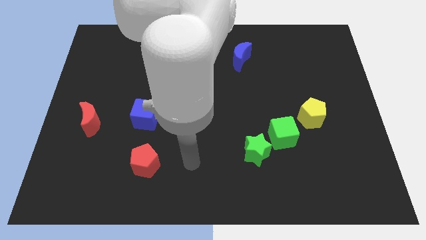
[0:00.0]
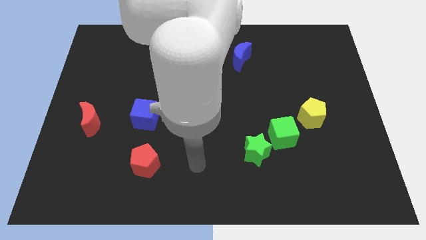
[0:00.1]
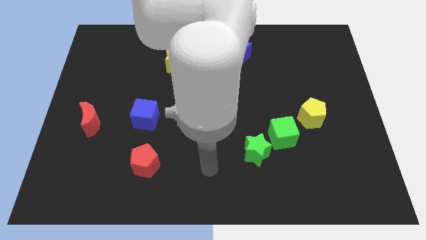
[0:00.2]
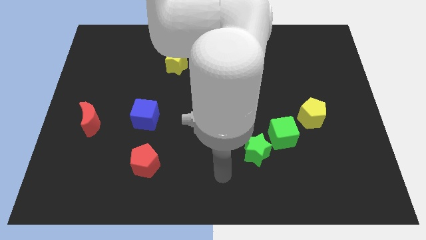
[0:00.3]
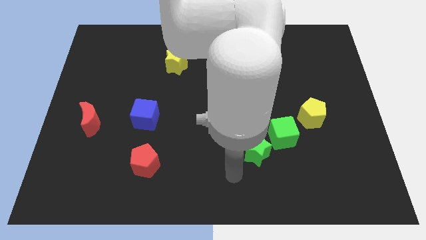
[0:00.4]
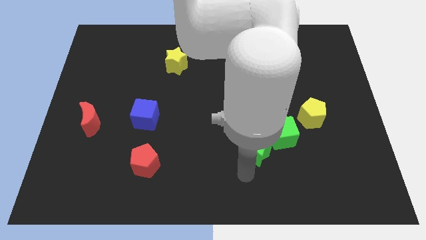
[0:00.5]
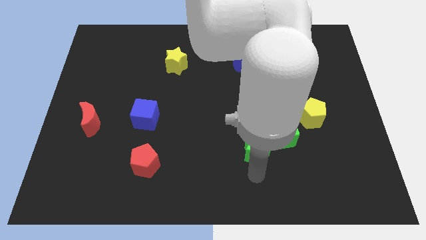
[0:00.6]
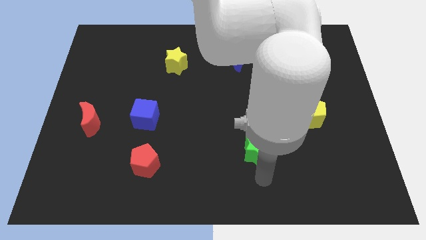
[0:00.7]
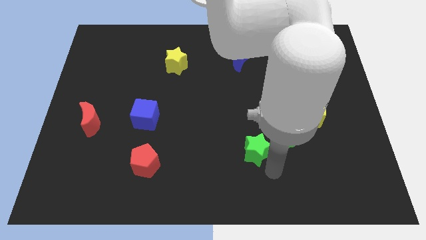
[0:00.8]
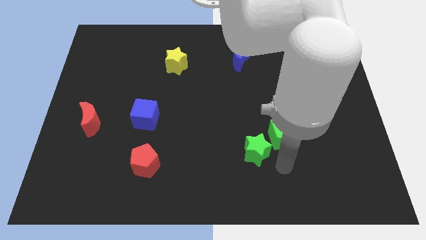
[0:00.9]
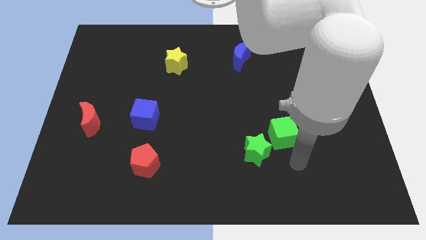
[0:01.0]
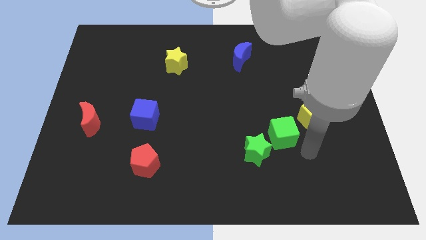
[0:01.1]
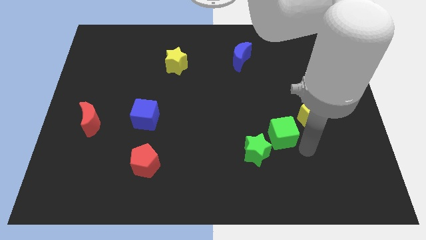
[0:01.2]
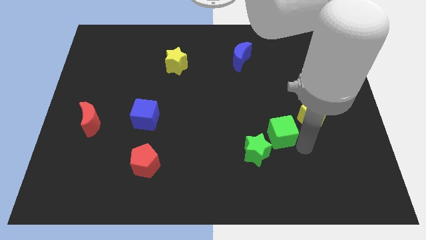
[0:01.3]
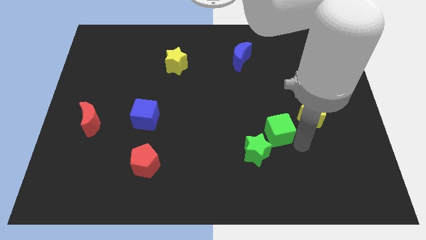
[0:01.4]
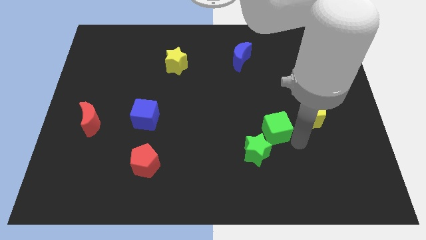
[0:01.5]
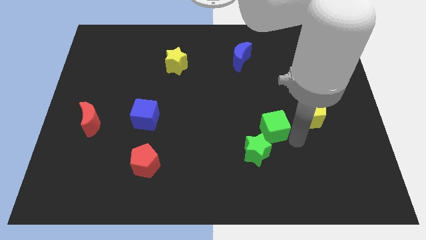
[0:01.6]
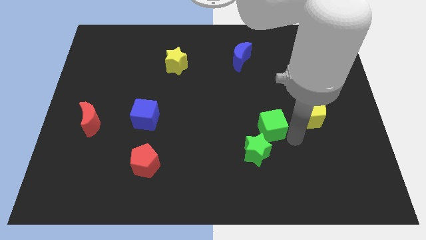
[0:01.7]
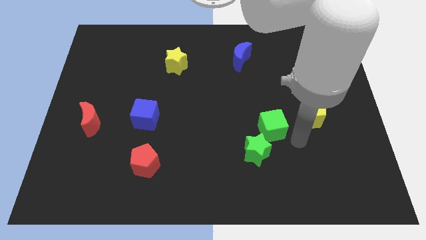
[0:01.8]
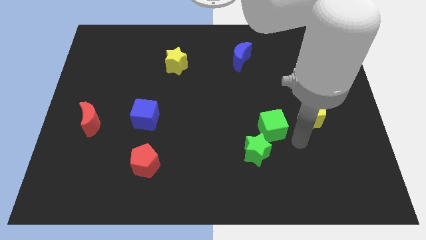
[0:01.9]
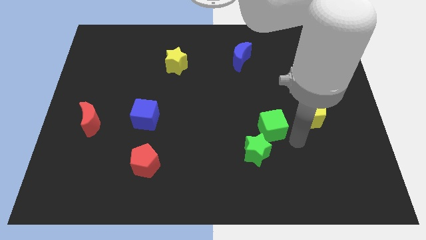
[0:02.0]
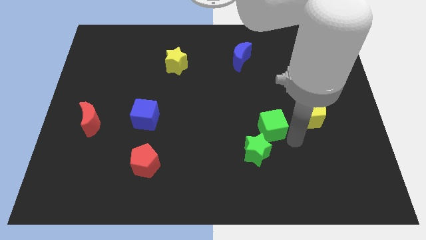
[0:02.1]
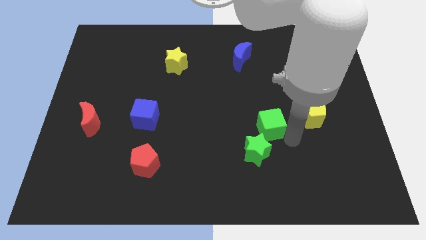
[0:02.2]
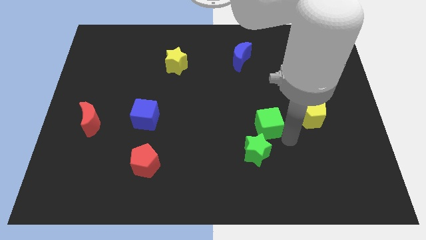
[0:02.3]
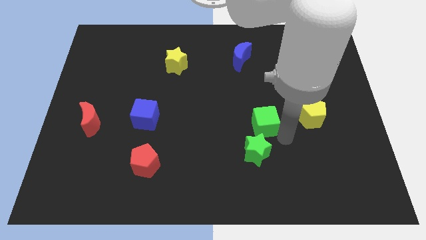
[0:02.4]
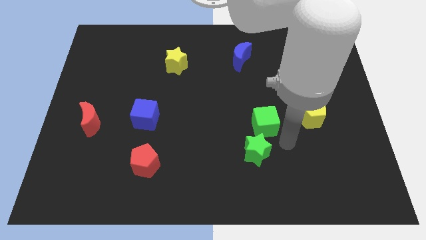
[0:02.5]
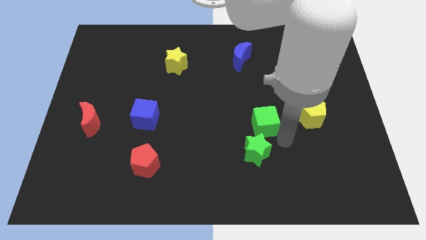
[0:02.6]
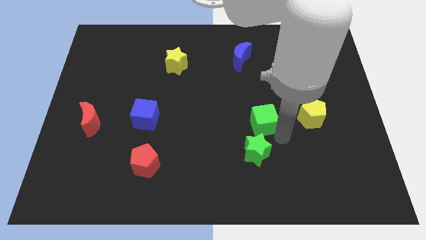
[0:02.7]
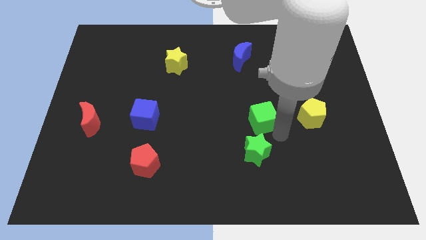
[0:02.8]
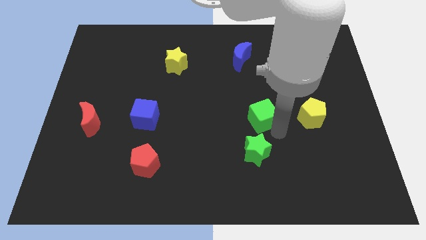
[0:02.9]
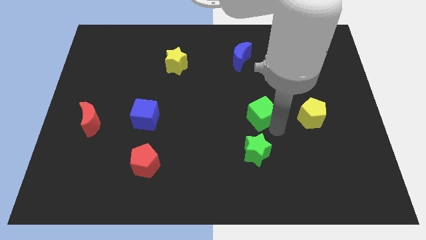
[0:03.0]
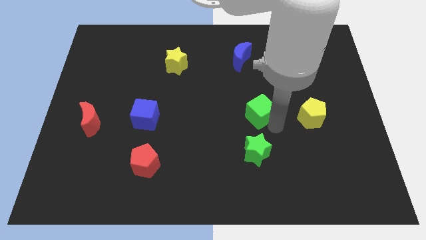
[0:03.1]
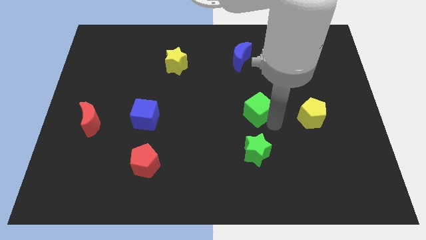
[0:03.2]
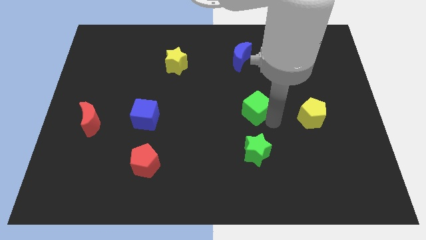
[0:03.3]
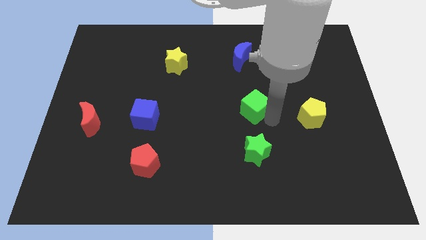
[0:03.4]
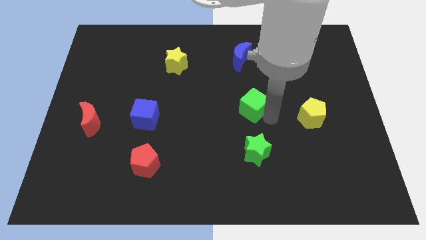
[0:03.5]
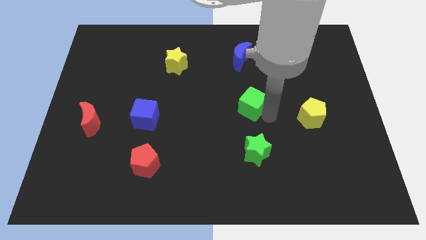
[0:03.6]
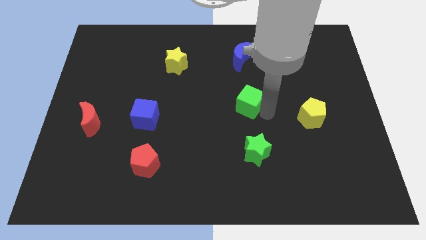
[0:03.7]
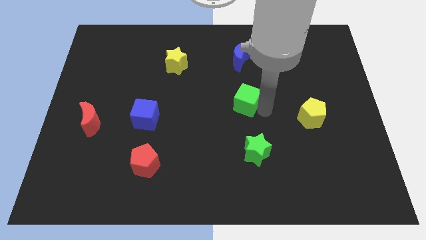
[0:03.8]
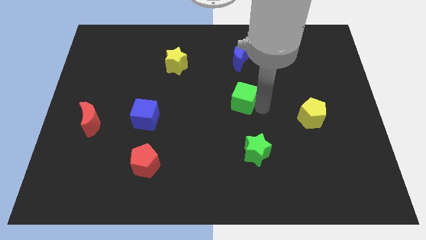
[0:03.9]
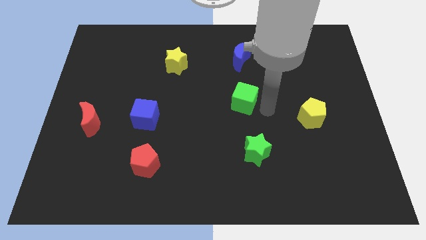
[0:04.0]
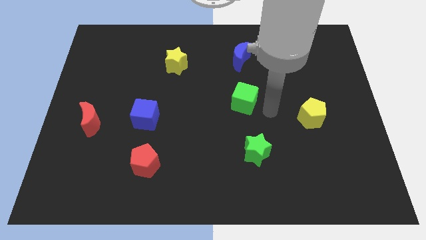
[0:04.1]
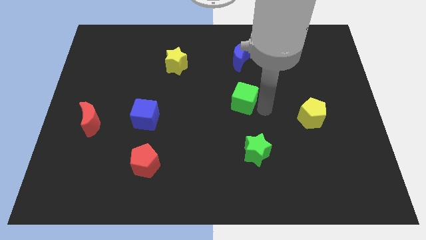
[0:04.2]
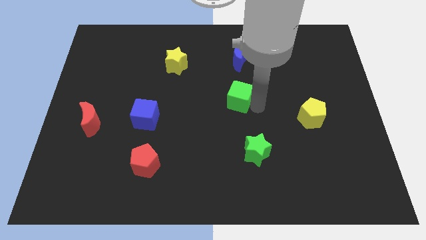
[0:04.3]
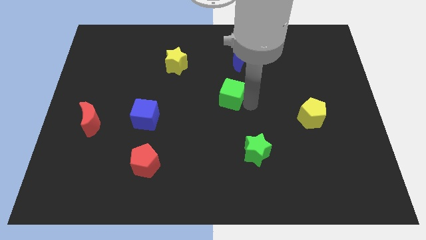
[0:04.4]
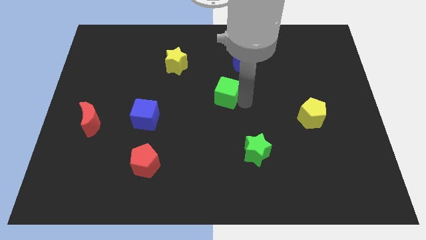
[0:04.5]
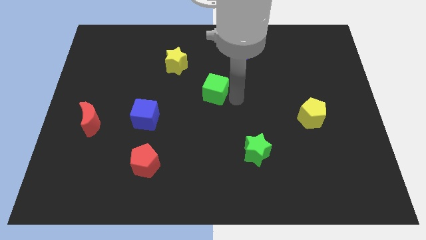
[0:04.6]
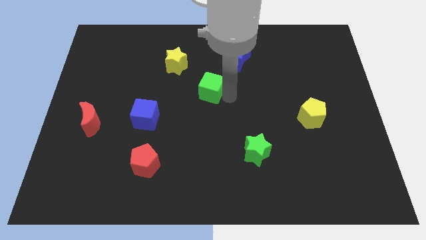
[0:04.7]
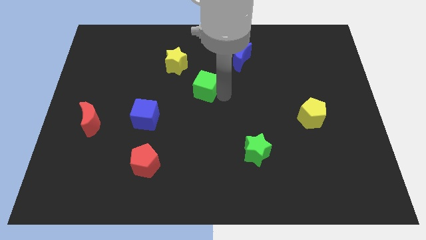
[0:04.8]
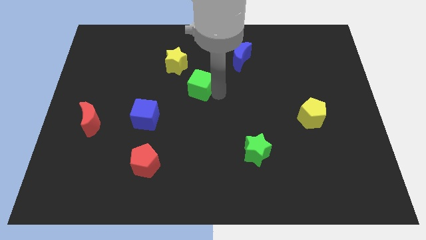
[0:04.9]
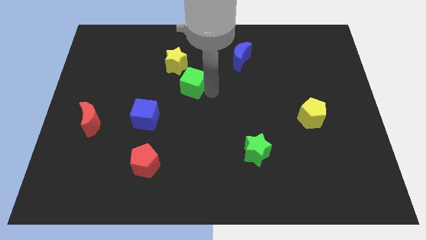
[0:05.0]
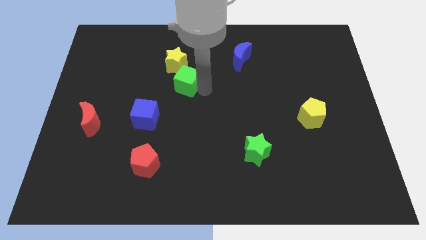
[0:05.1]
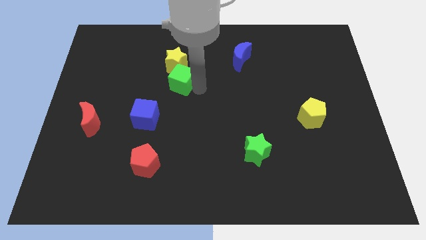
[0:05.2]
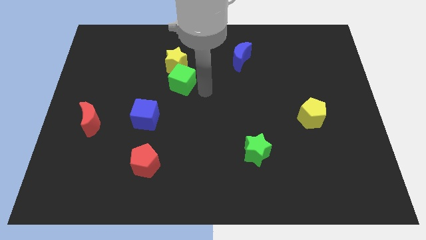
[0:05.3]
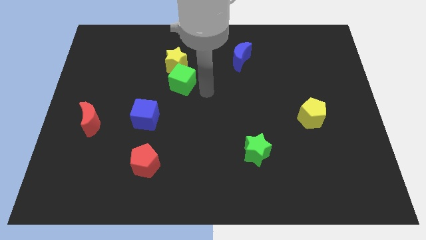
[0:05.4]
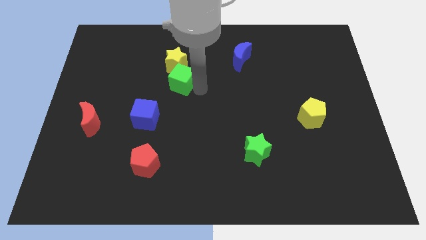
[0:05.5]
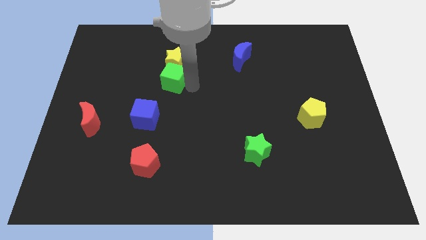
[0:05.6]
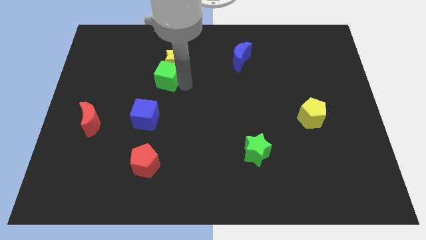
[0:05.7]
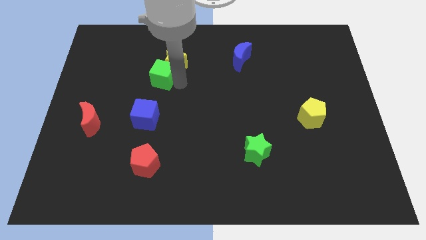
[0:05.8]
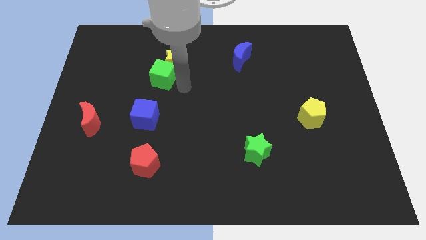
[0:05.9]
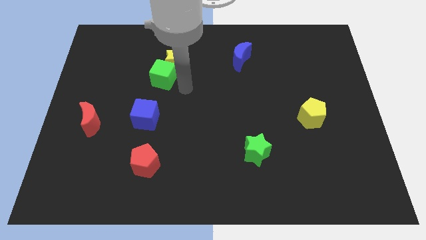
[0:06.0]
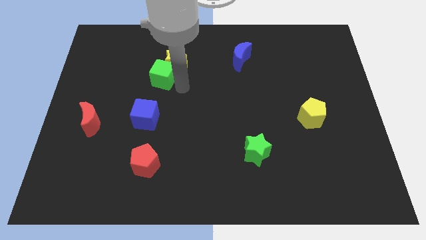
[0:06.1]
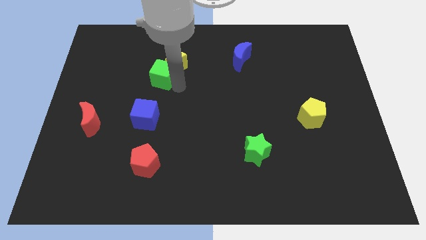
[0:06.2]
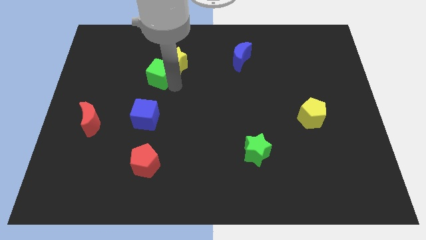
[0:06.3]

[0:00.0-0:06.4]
push the green cube just left of the yellow star

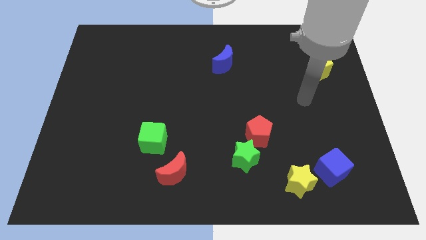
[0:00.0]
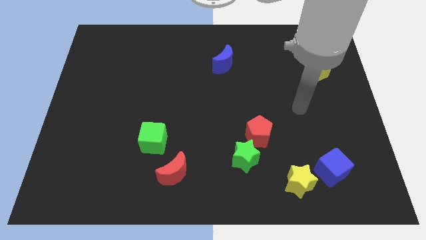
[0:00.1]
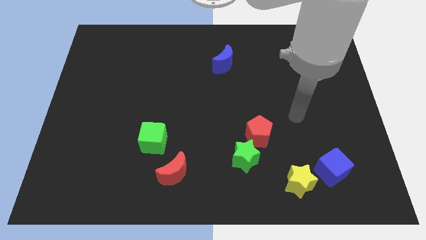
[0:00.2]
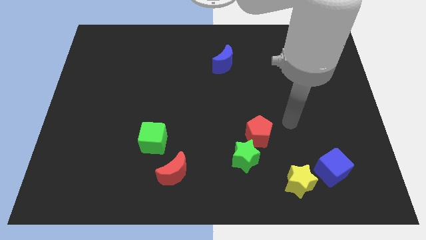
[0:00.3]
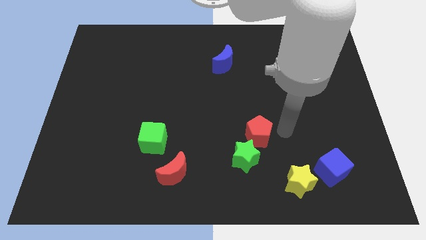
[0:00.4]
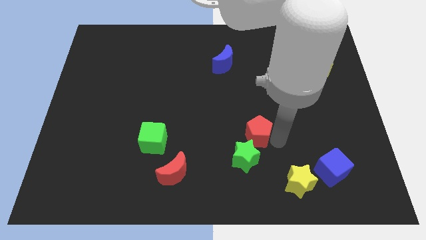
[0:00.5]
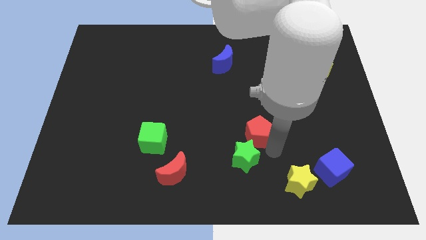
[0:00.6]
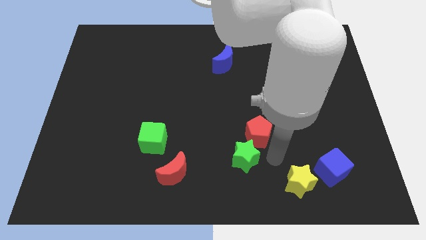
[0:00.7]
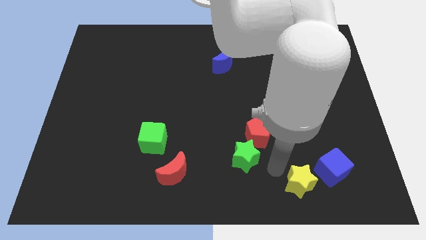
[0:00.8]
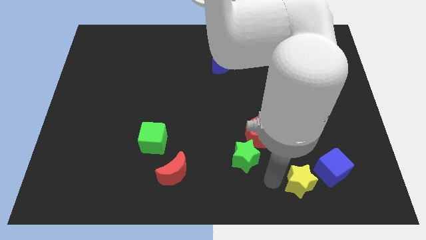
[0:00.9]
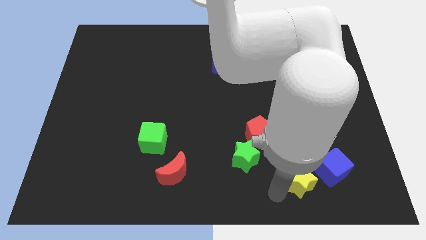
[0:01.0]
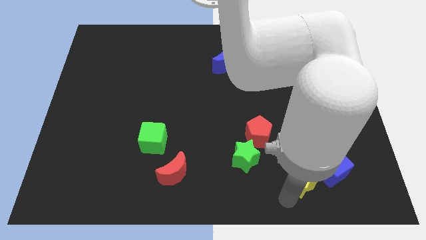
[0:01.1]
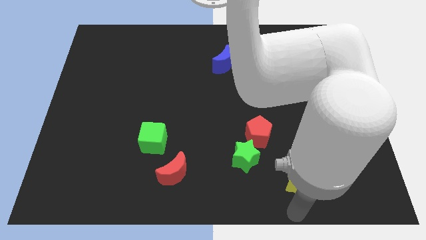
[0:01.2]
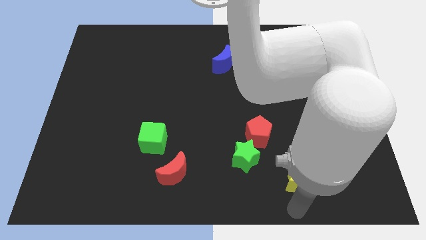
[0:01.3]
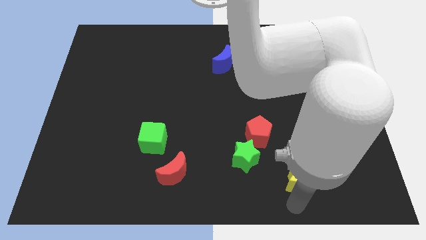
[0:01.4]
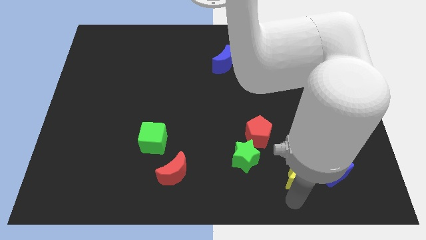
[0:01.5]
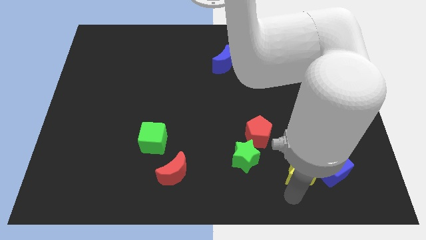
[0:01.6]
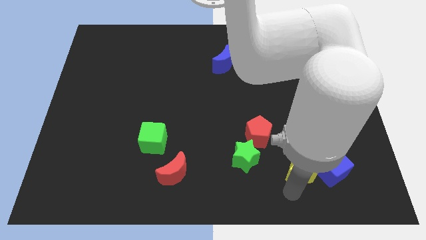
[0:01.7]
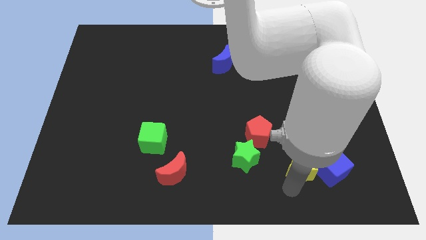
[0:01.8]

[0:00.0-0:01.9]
push the yellow star to the top left side of the blue cube
